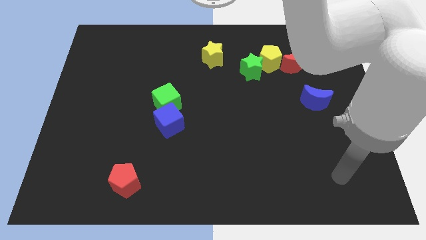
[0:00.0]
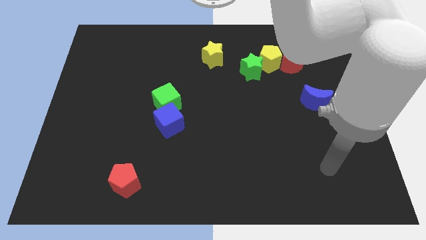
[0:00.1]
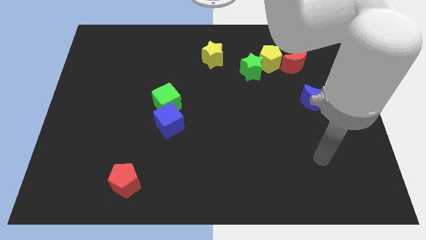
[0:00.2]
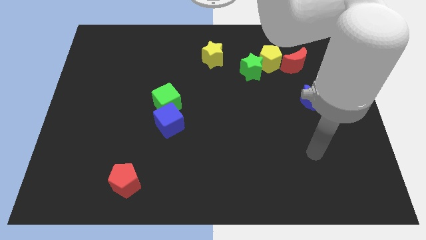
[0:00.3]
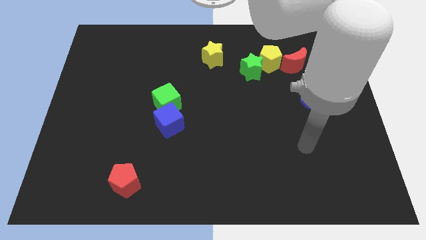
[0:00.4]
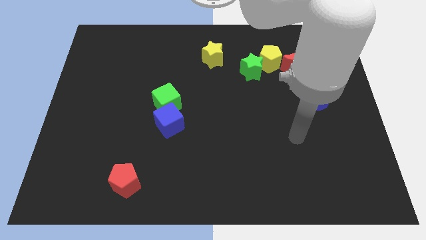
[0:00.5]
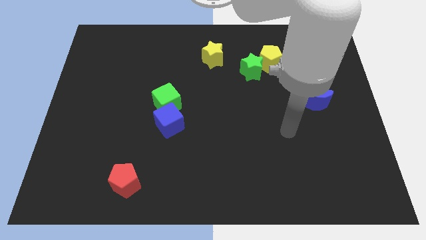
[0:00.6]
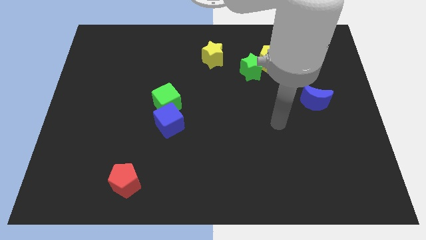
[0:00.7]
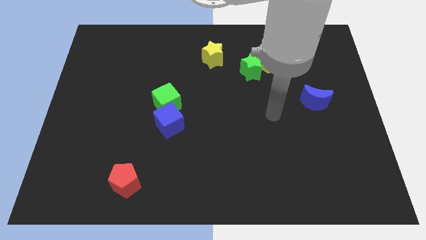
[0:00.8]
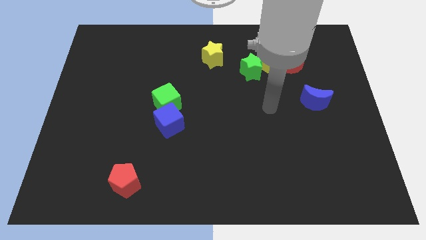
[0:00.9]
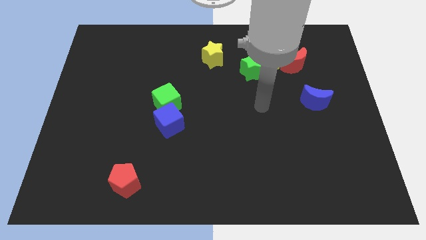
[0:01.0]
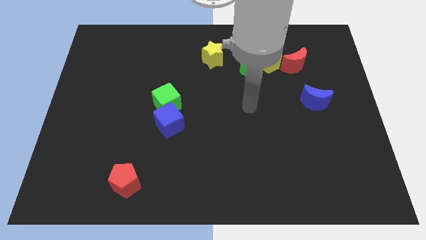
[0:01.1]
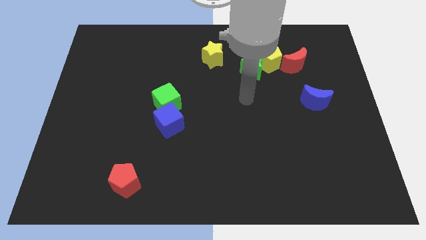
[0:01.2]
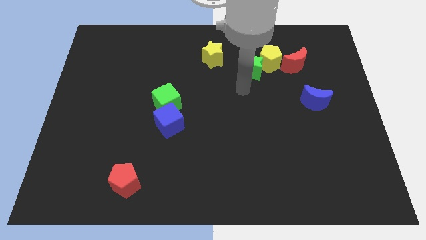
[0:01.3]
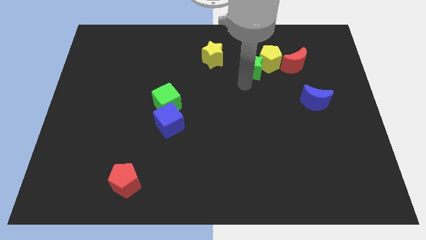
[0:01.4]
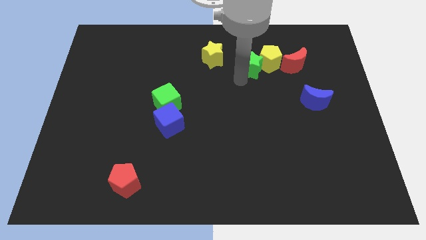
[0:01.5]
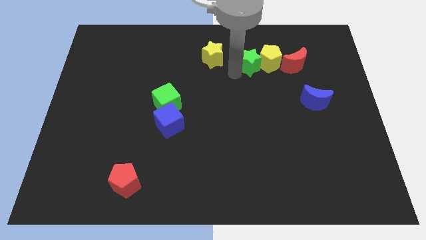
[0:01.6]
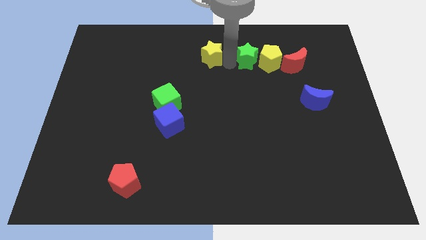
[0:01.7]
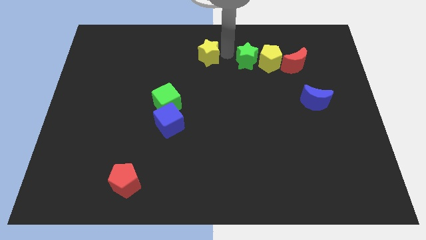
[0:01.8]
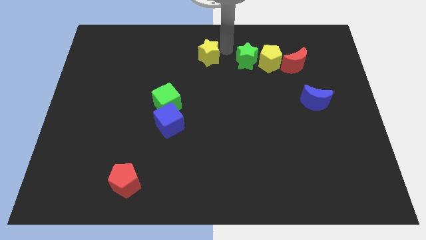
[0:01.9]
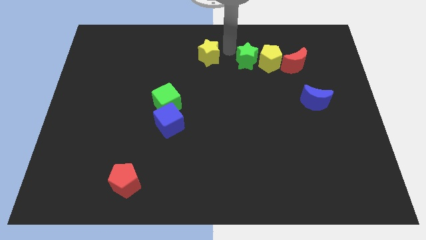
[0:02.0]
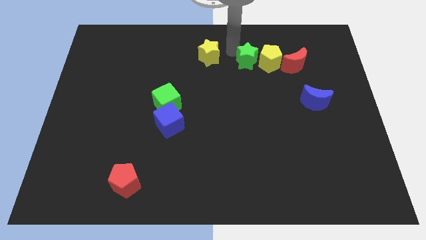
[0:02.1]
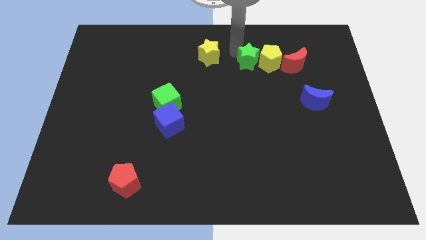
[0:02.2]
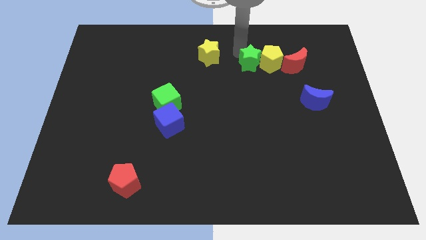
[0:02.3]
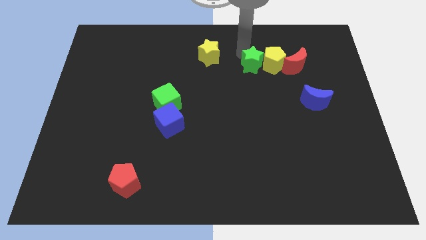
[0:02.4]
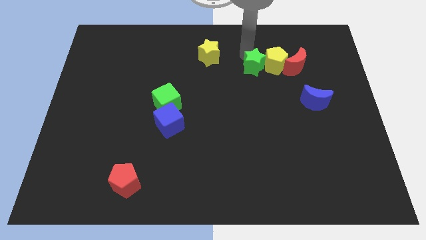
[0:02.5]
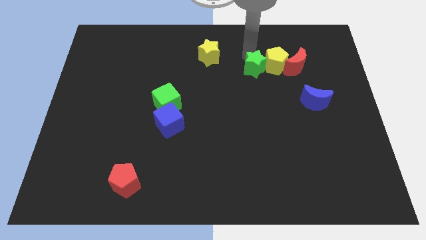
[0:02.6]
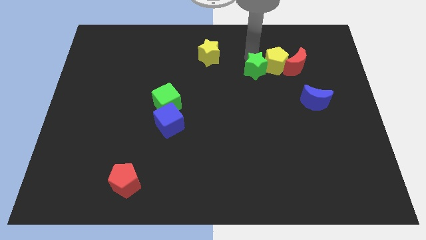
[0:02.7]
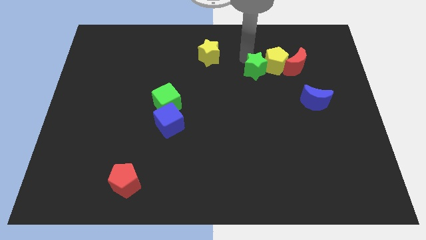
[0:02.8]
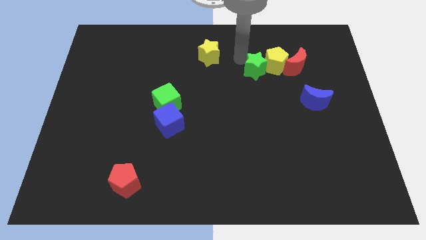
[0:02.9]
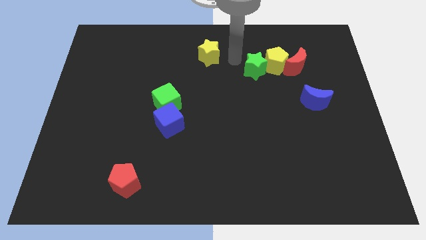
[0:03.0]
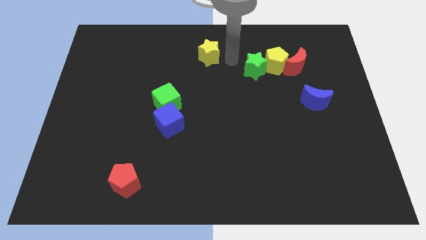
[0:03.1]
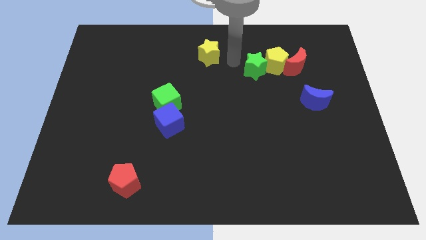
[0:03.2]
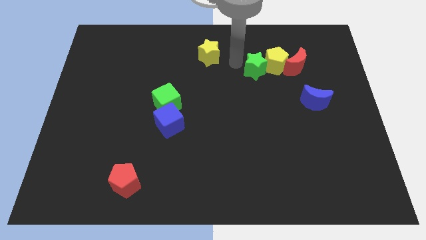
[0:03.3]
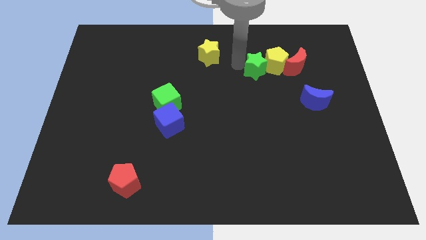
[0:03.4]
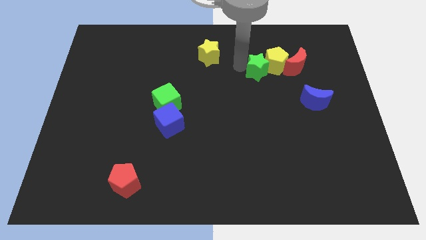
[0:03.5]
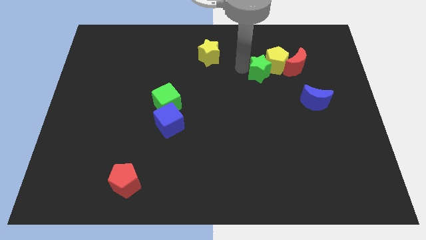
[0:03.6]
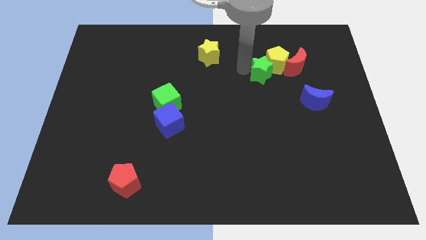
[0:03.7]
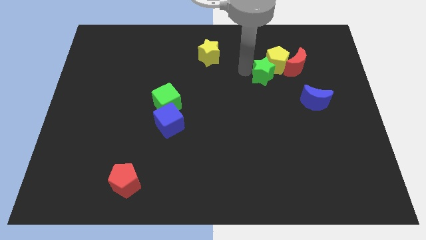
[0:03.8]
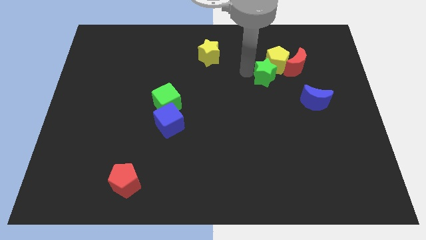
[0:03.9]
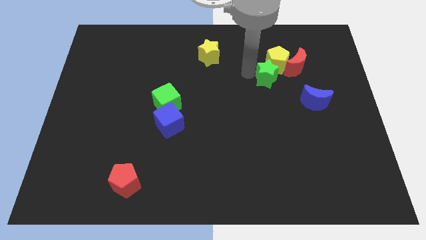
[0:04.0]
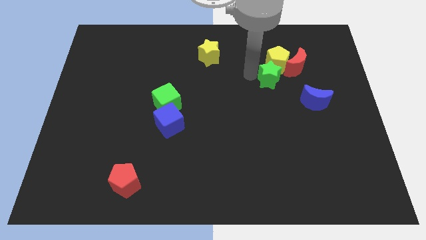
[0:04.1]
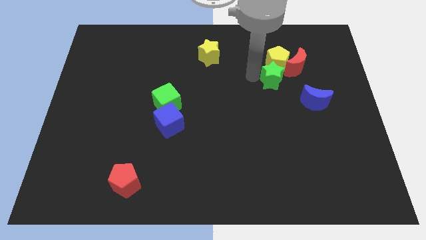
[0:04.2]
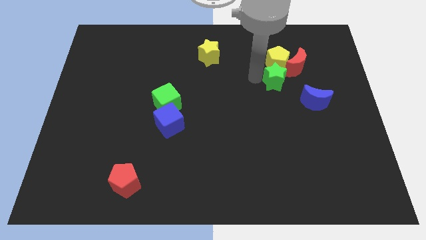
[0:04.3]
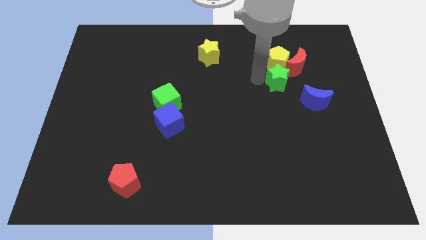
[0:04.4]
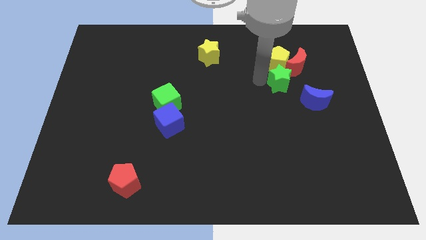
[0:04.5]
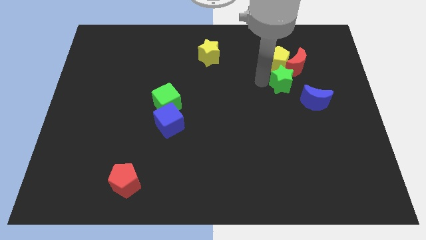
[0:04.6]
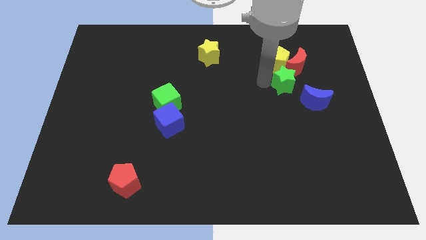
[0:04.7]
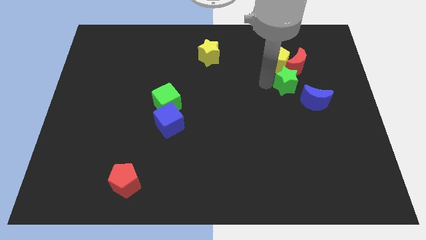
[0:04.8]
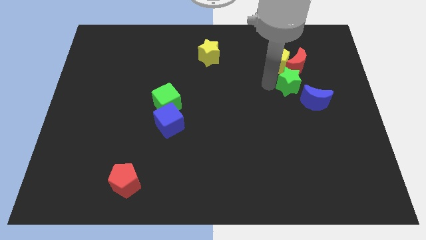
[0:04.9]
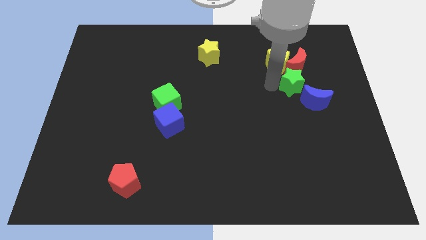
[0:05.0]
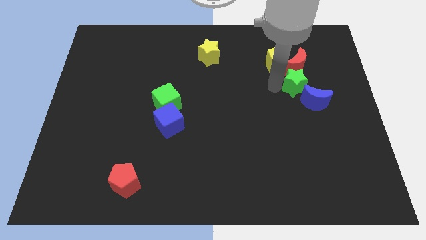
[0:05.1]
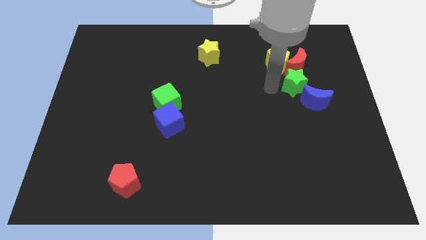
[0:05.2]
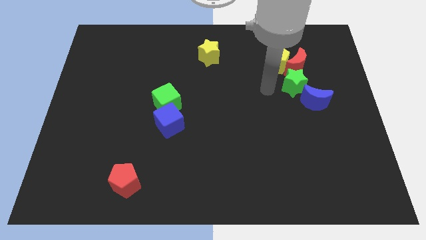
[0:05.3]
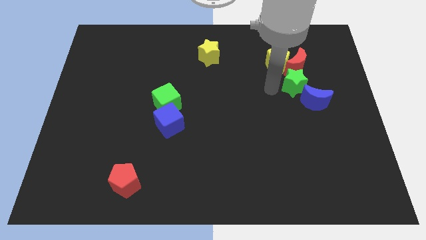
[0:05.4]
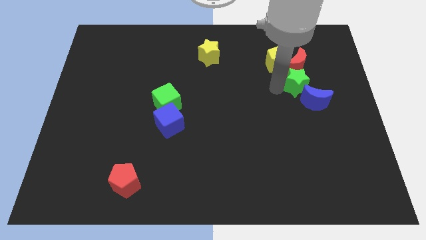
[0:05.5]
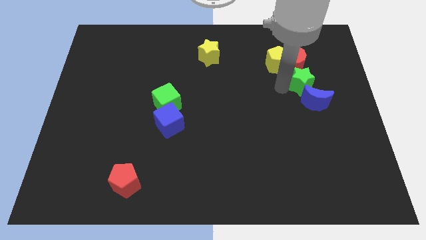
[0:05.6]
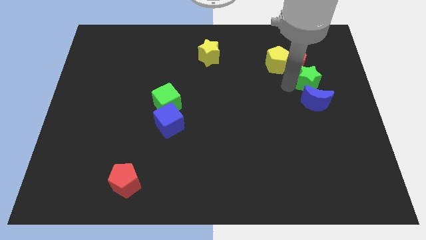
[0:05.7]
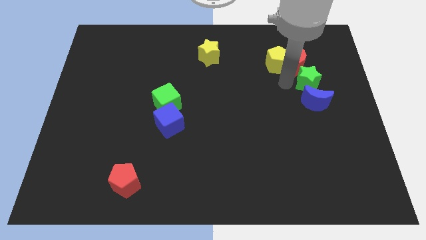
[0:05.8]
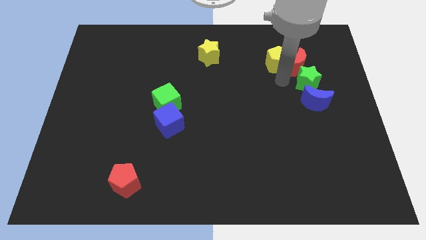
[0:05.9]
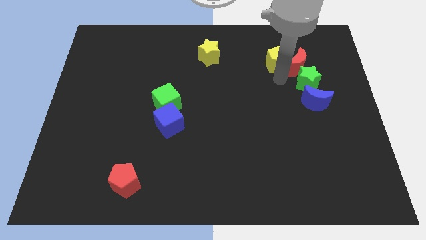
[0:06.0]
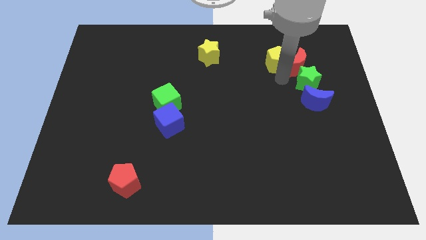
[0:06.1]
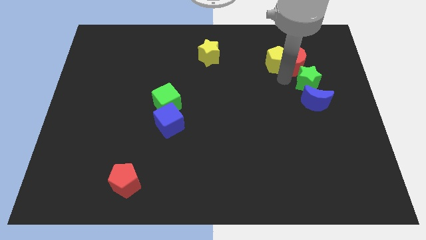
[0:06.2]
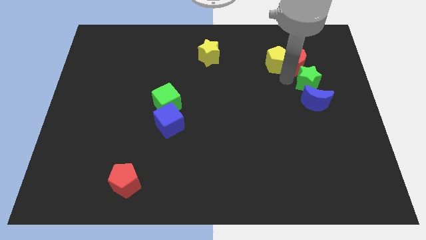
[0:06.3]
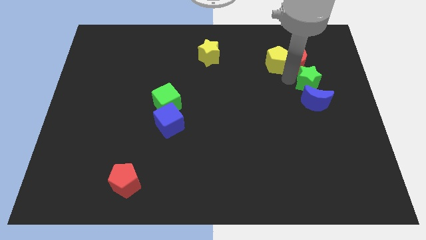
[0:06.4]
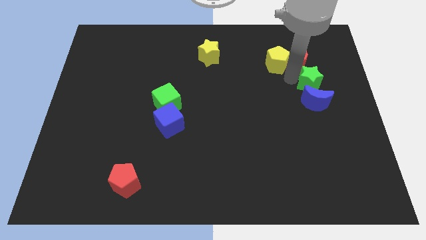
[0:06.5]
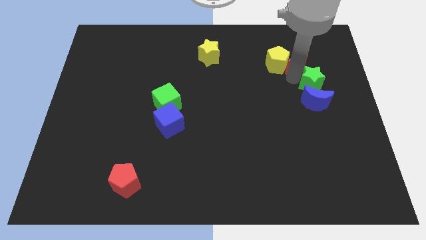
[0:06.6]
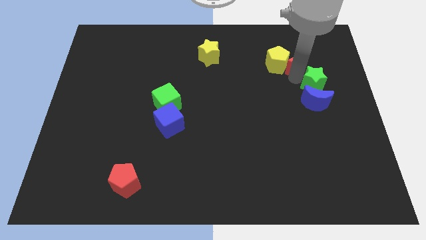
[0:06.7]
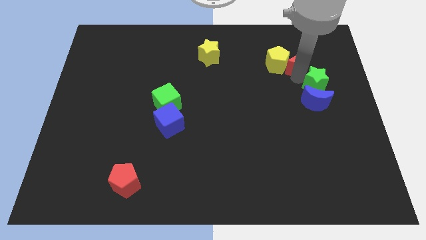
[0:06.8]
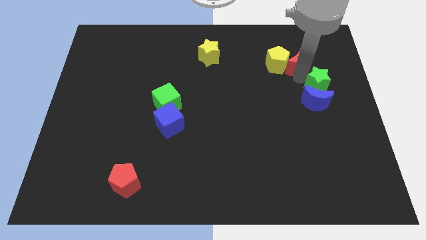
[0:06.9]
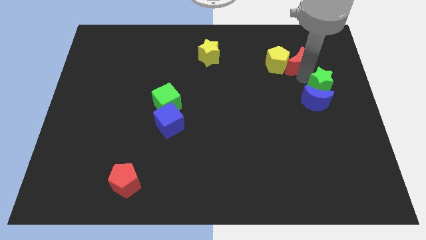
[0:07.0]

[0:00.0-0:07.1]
push the green star to the center right
